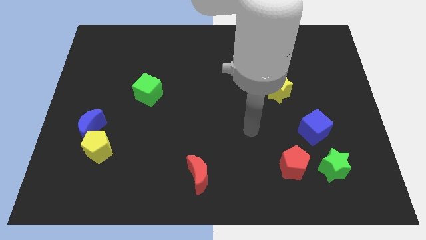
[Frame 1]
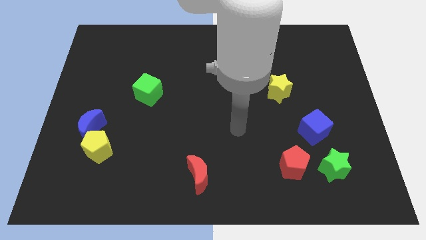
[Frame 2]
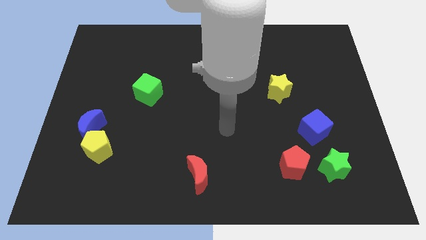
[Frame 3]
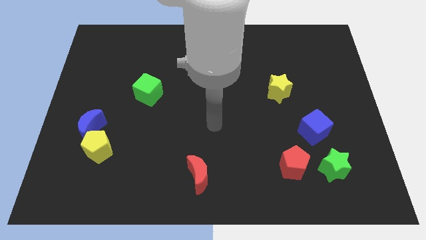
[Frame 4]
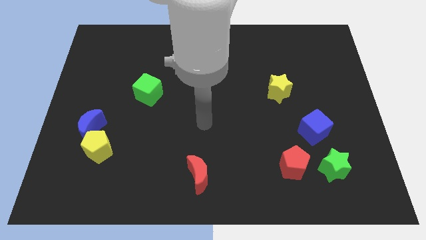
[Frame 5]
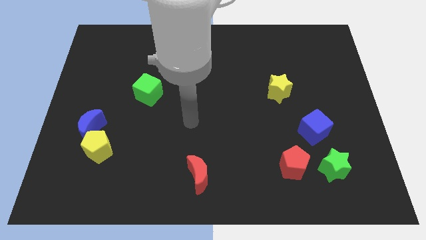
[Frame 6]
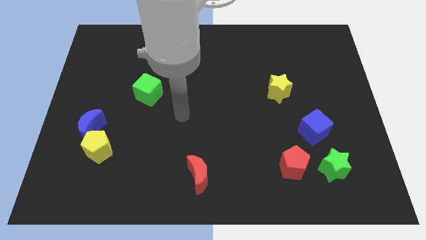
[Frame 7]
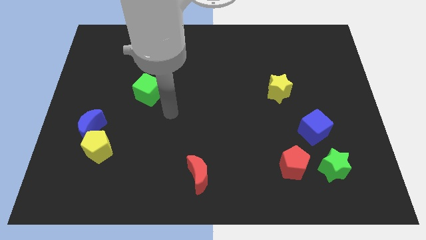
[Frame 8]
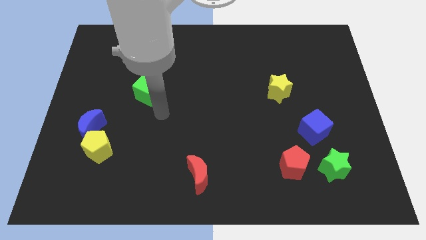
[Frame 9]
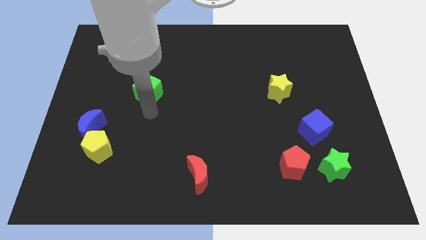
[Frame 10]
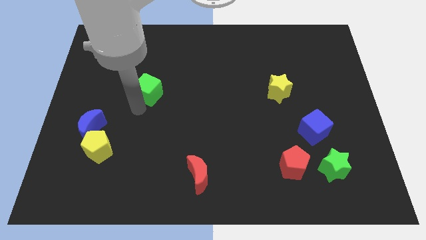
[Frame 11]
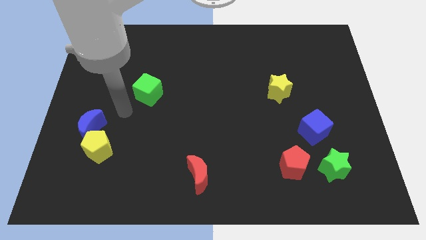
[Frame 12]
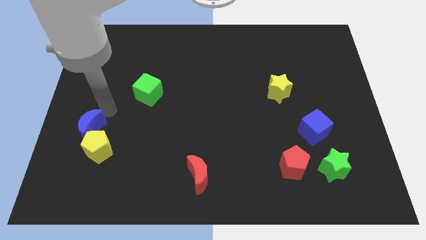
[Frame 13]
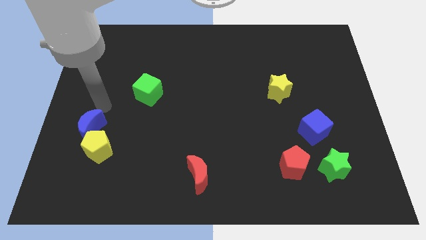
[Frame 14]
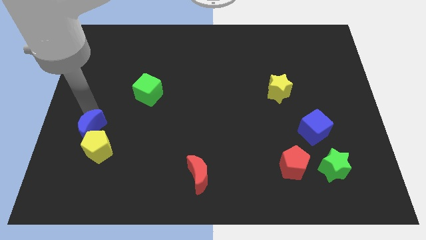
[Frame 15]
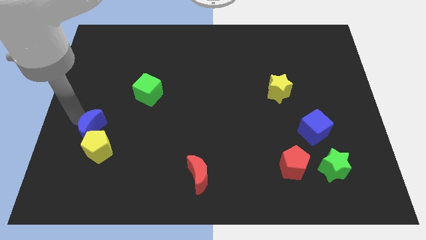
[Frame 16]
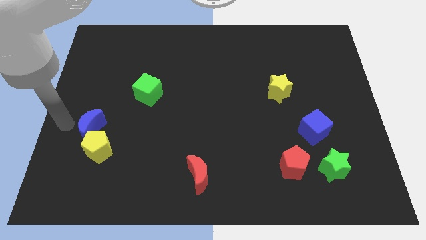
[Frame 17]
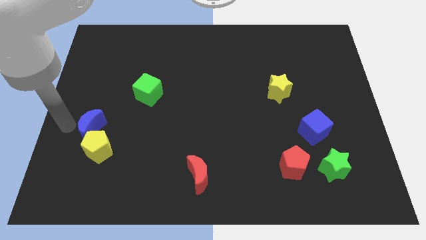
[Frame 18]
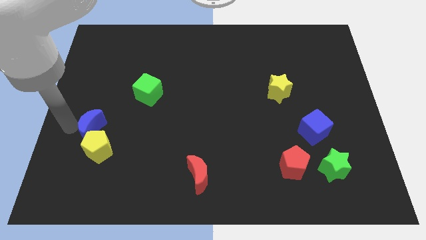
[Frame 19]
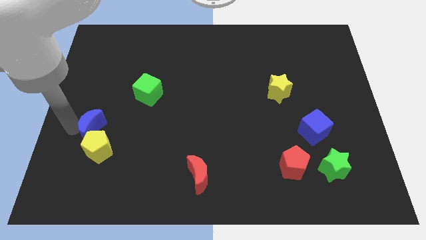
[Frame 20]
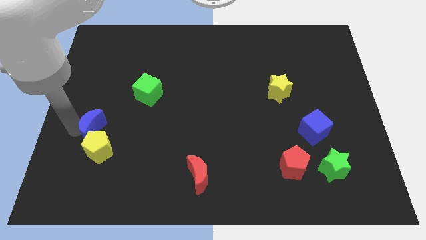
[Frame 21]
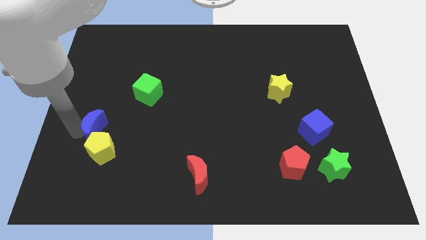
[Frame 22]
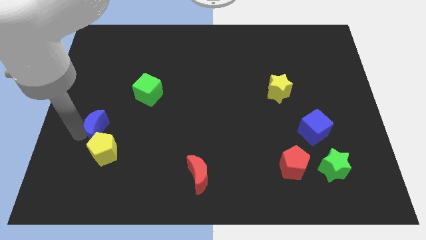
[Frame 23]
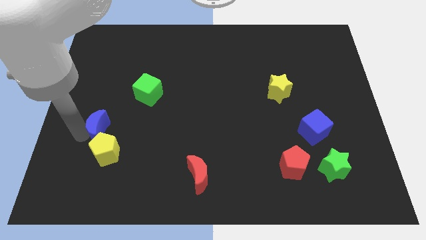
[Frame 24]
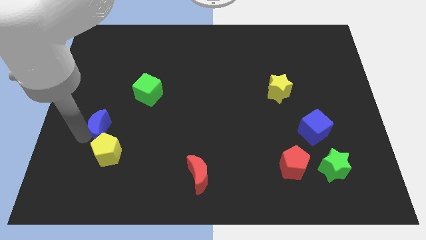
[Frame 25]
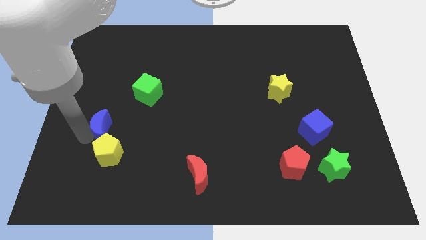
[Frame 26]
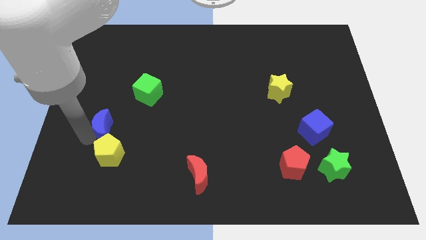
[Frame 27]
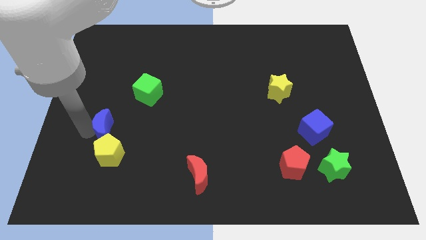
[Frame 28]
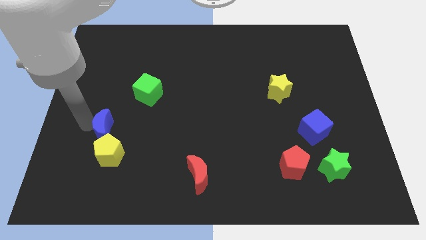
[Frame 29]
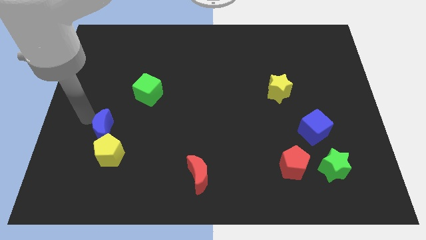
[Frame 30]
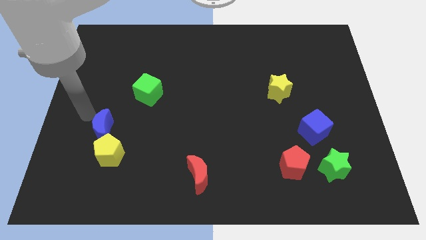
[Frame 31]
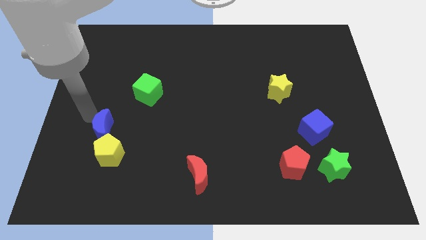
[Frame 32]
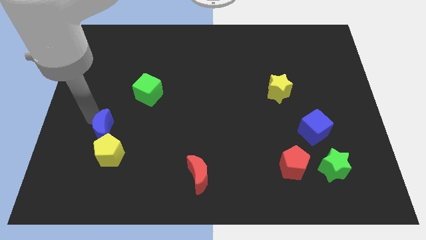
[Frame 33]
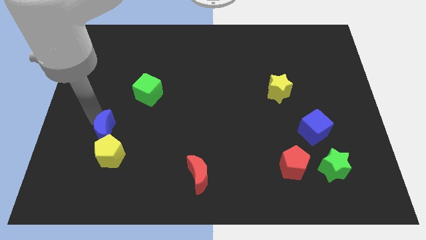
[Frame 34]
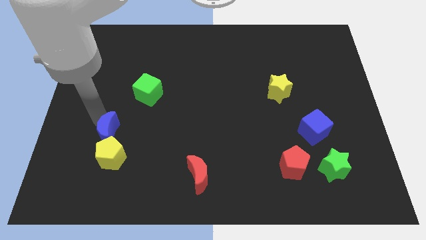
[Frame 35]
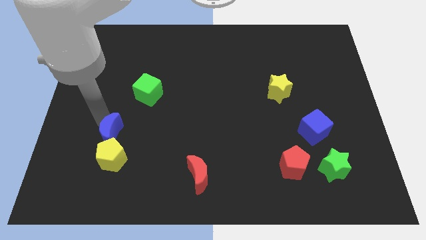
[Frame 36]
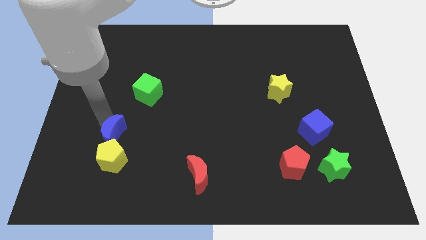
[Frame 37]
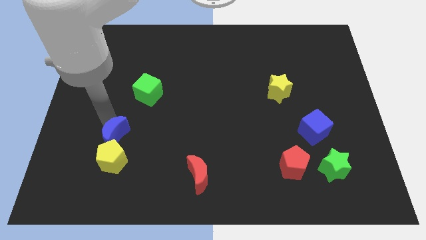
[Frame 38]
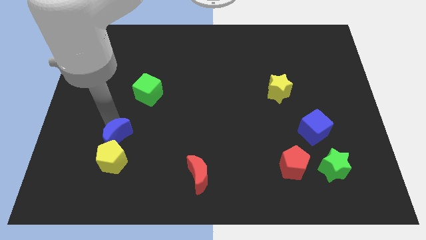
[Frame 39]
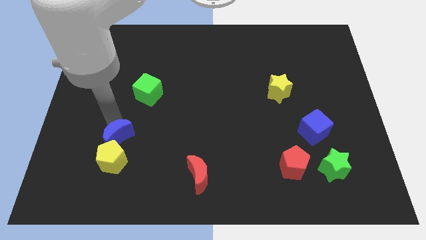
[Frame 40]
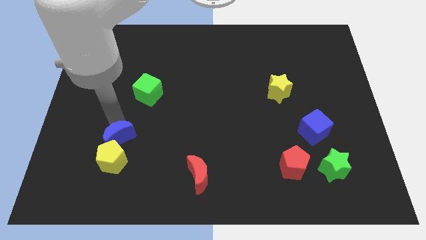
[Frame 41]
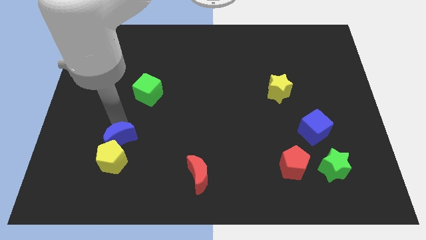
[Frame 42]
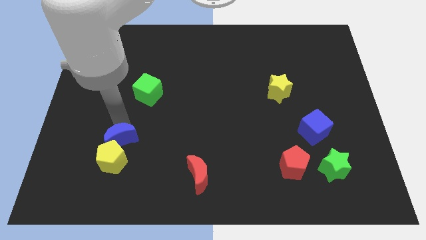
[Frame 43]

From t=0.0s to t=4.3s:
slightly push the blue moon down and right diagonally

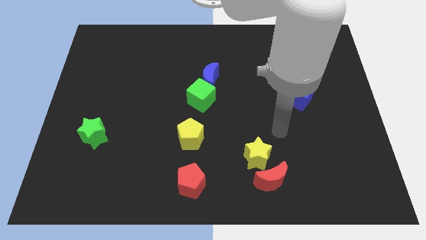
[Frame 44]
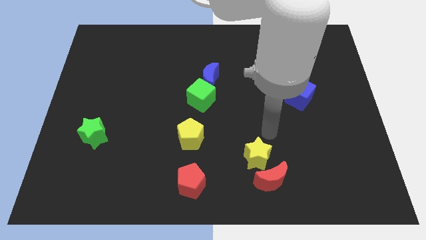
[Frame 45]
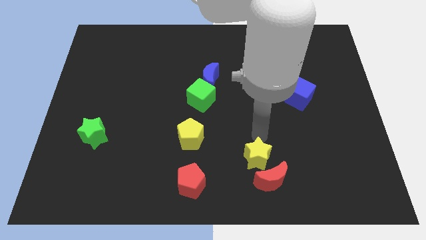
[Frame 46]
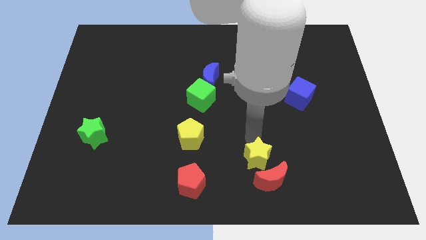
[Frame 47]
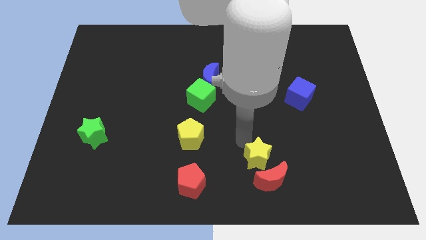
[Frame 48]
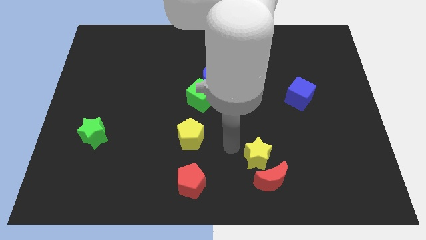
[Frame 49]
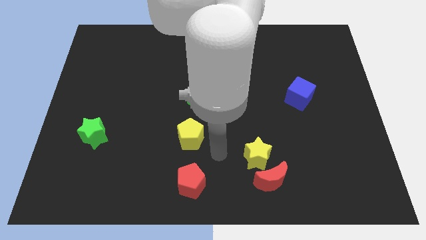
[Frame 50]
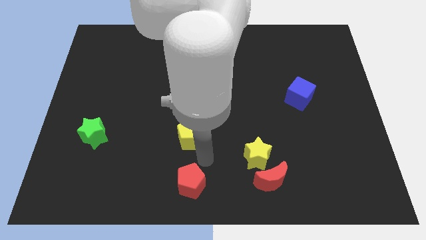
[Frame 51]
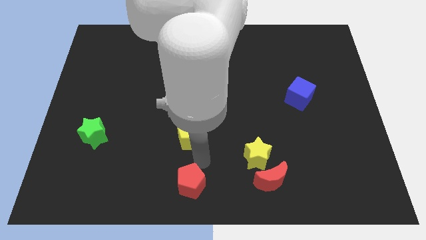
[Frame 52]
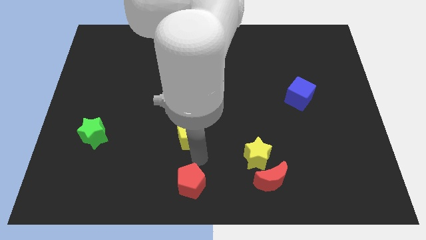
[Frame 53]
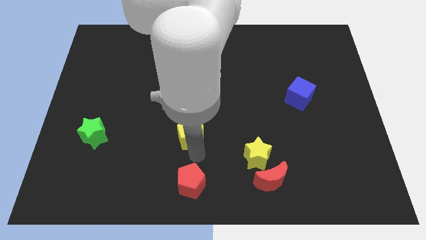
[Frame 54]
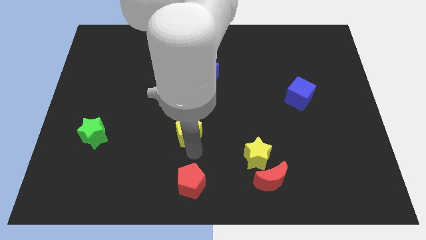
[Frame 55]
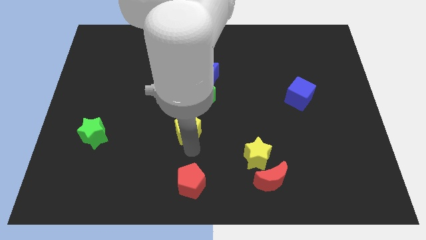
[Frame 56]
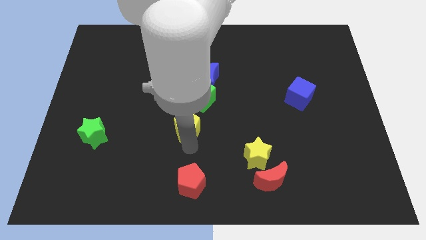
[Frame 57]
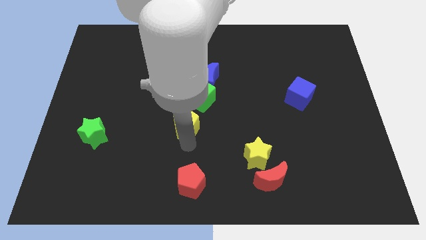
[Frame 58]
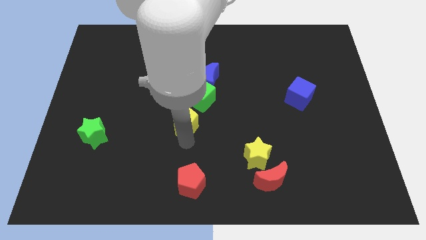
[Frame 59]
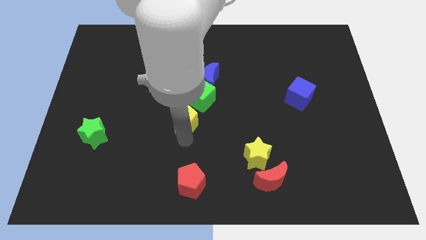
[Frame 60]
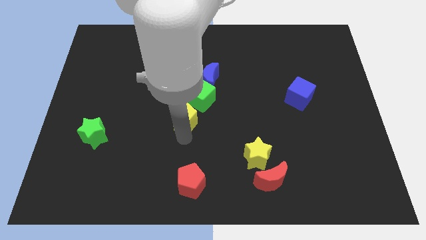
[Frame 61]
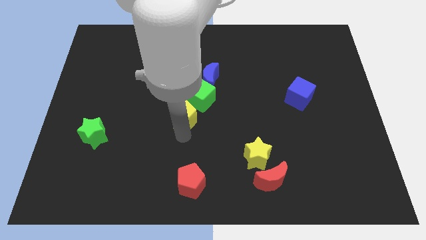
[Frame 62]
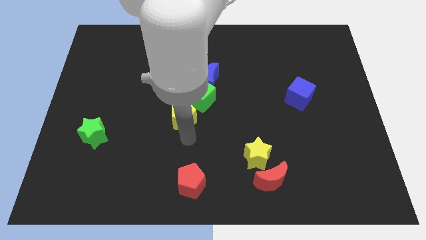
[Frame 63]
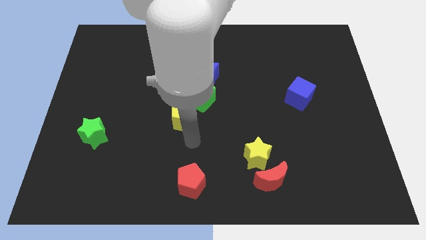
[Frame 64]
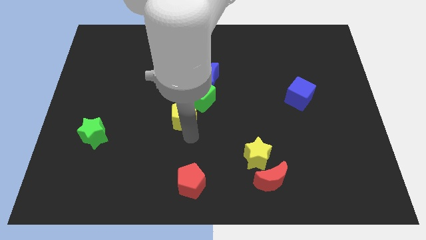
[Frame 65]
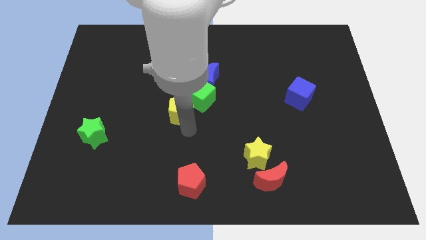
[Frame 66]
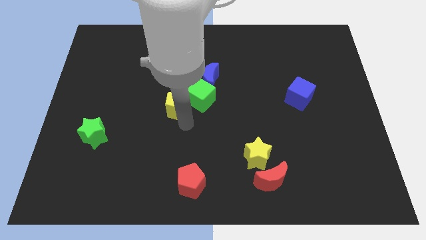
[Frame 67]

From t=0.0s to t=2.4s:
push the yellow pentagon a little bit up

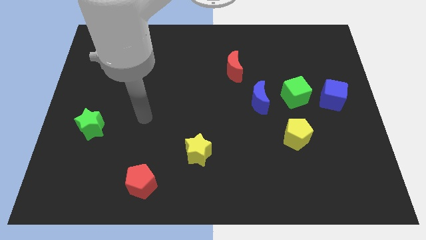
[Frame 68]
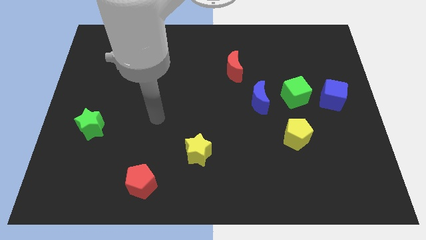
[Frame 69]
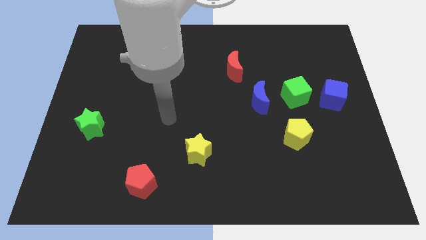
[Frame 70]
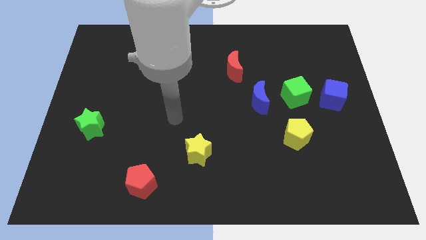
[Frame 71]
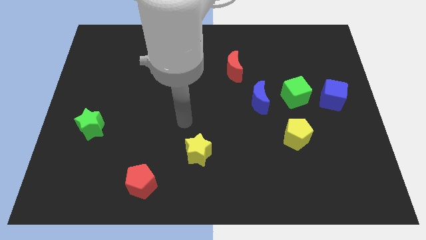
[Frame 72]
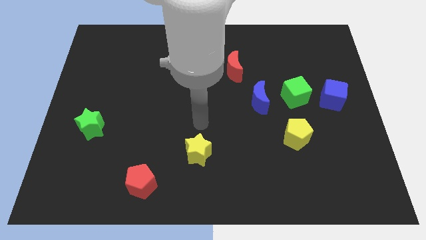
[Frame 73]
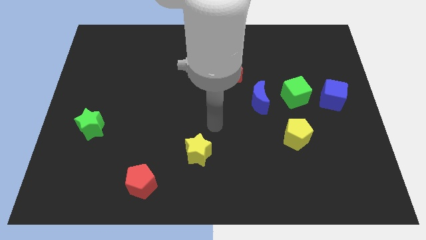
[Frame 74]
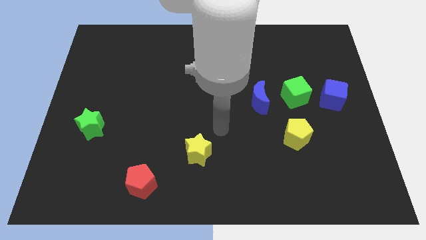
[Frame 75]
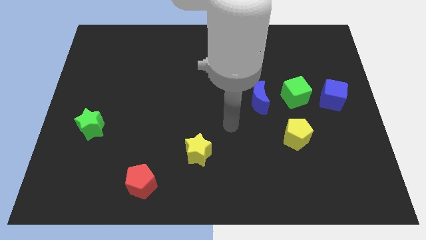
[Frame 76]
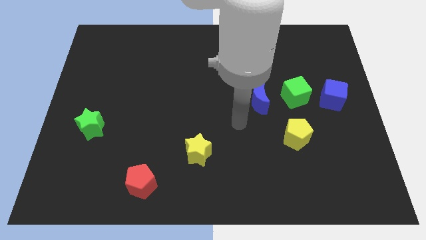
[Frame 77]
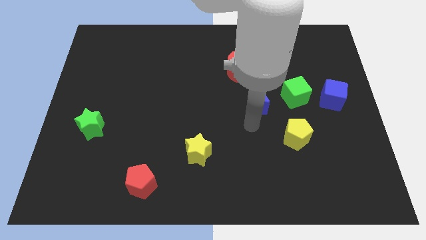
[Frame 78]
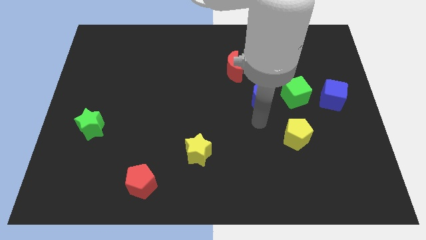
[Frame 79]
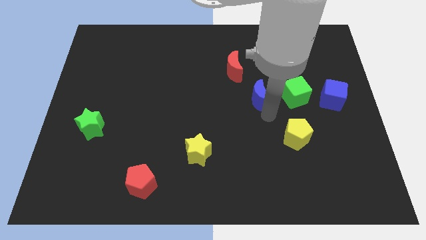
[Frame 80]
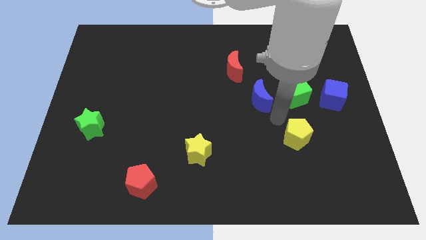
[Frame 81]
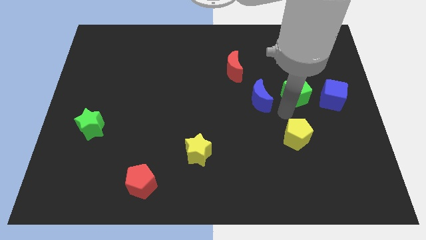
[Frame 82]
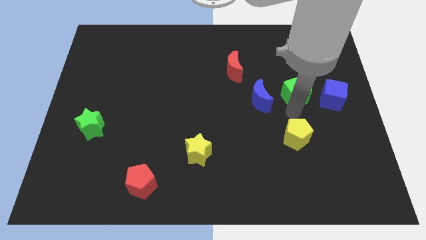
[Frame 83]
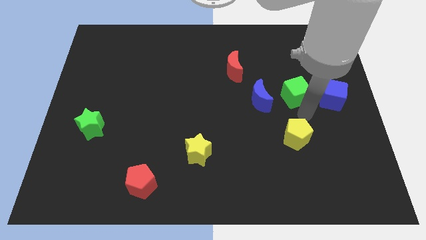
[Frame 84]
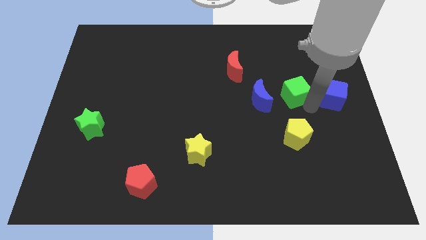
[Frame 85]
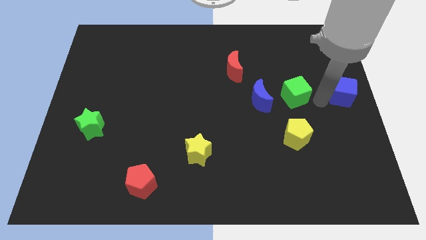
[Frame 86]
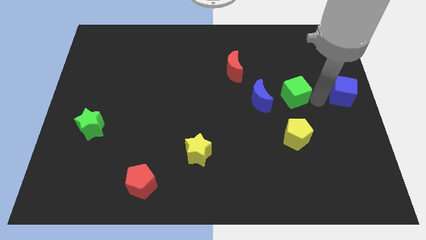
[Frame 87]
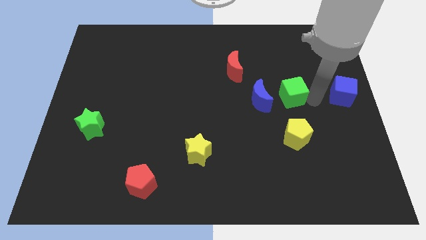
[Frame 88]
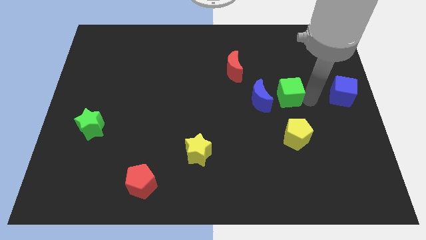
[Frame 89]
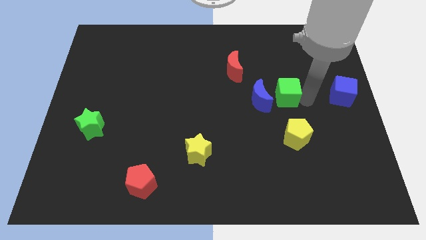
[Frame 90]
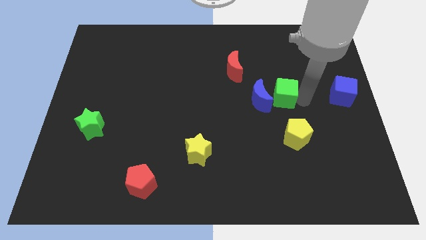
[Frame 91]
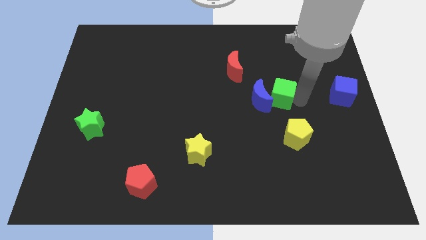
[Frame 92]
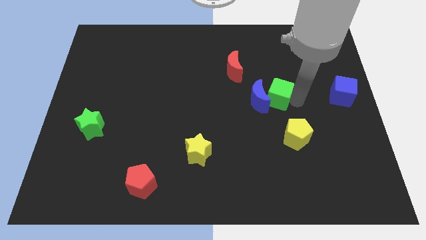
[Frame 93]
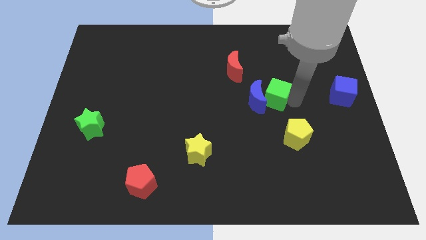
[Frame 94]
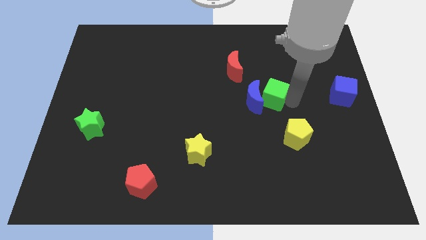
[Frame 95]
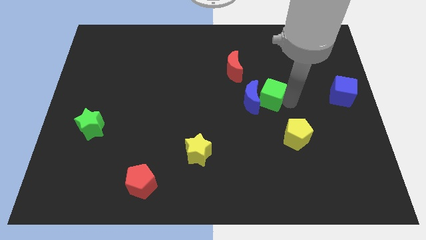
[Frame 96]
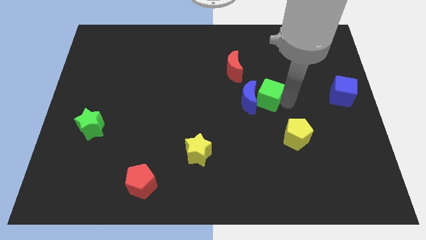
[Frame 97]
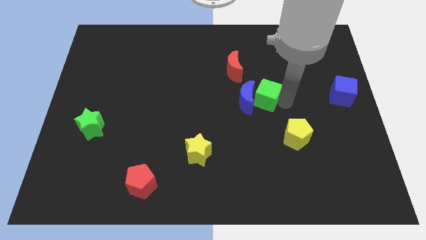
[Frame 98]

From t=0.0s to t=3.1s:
move the green cube a little to the left
